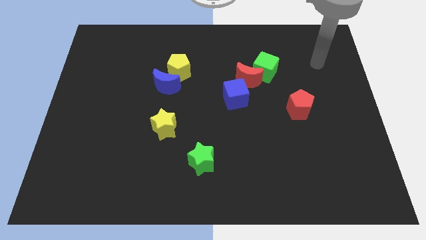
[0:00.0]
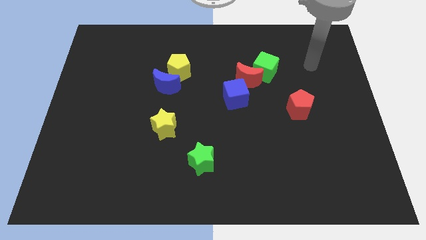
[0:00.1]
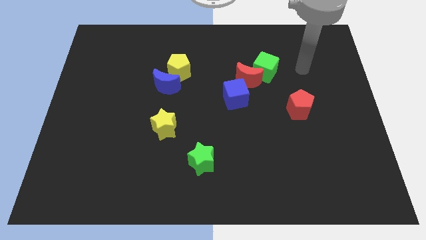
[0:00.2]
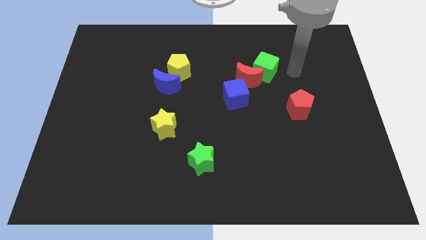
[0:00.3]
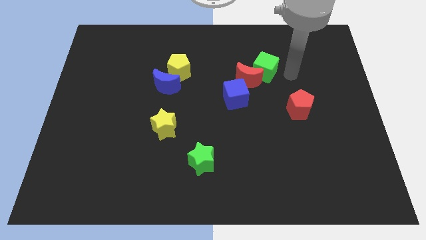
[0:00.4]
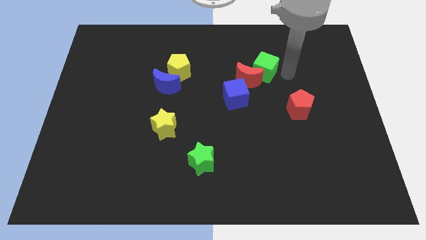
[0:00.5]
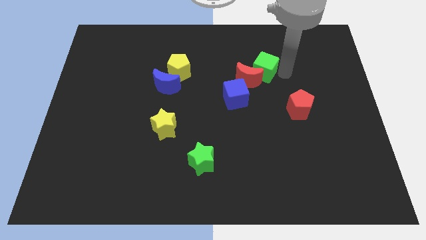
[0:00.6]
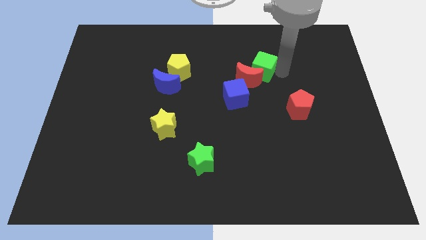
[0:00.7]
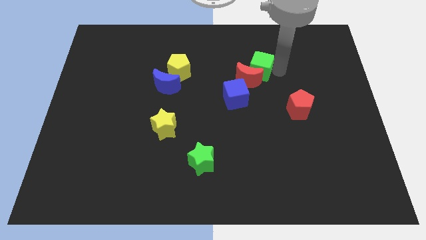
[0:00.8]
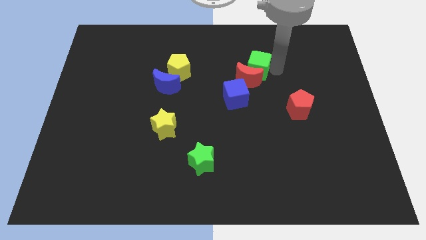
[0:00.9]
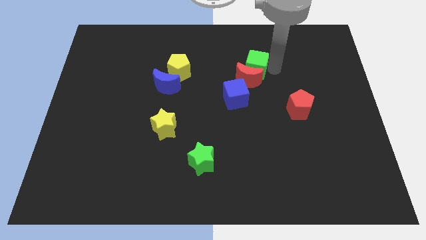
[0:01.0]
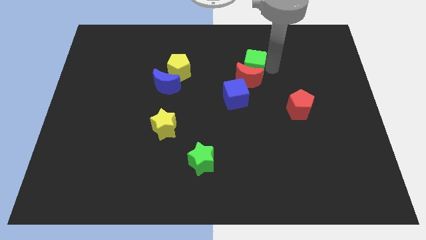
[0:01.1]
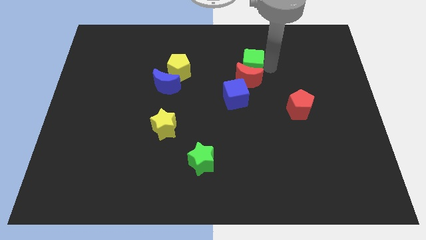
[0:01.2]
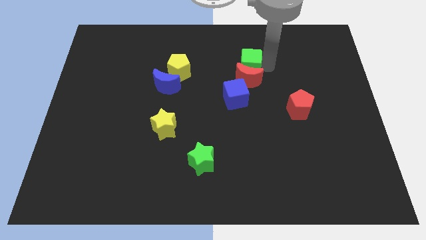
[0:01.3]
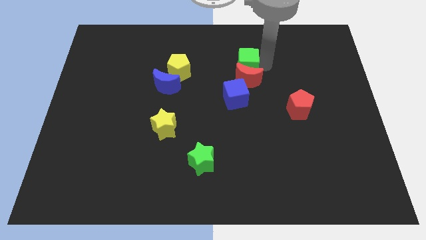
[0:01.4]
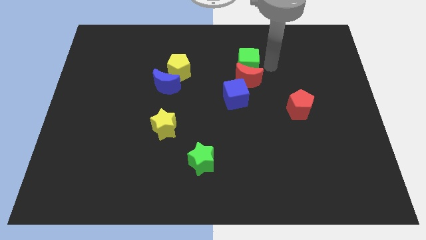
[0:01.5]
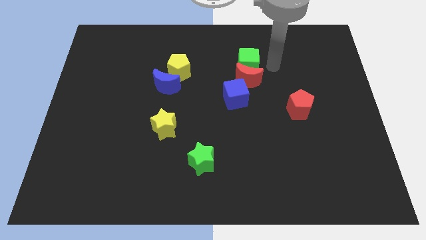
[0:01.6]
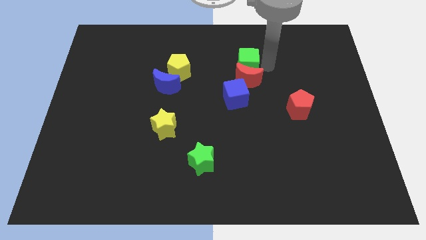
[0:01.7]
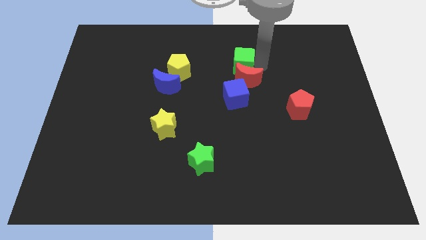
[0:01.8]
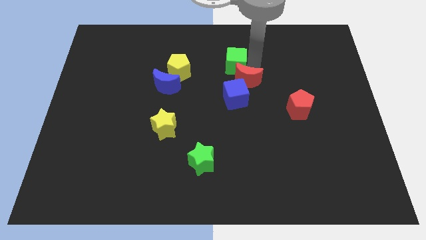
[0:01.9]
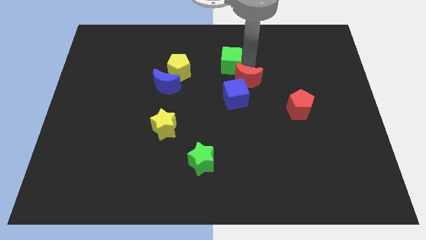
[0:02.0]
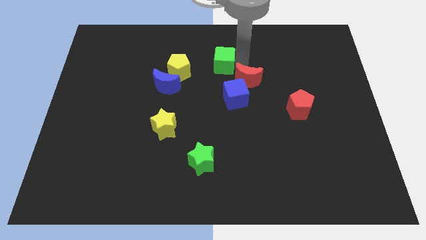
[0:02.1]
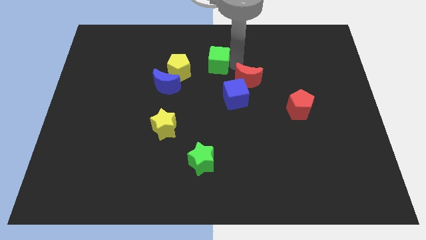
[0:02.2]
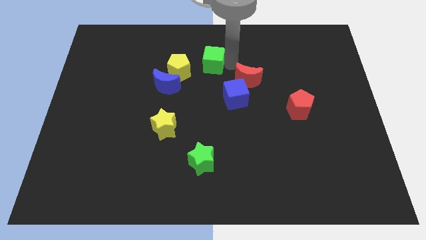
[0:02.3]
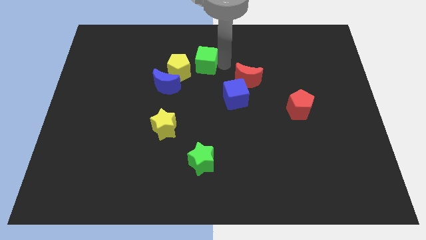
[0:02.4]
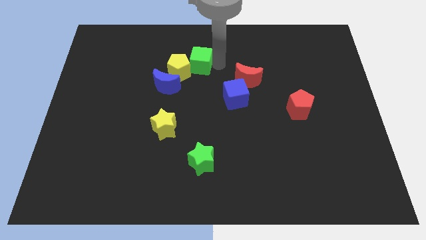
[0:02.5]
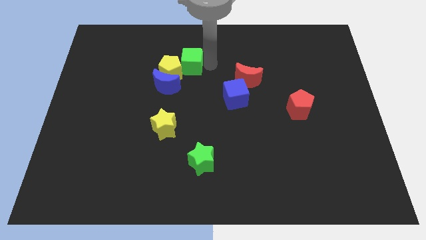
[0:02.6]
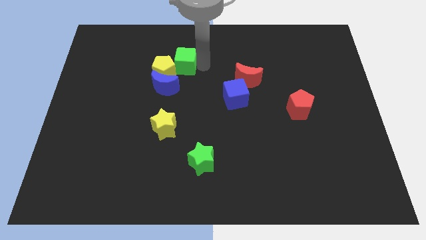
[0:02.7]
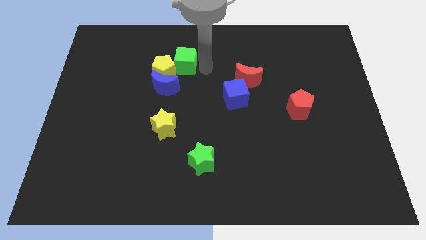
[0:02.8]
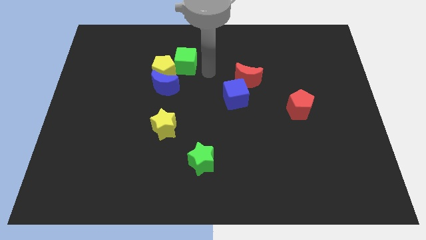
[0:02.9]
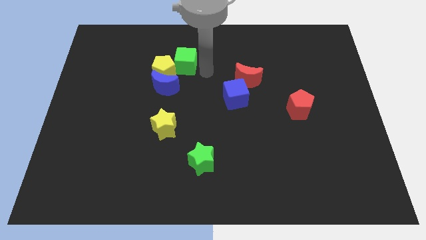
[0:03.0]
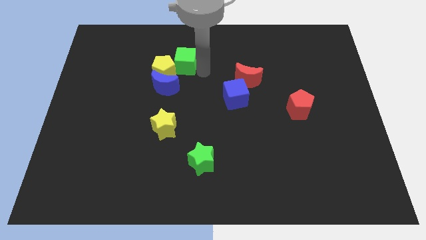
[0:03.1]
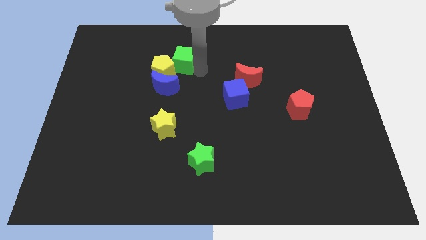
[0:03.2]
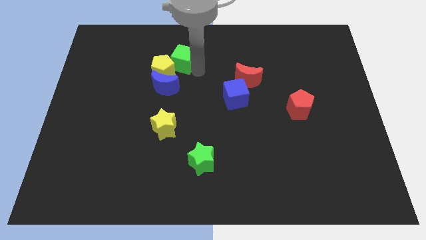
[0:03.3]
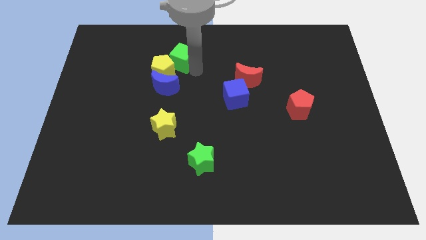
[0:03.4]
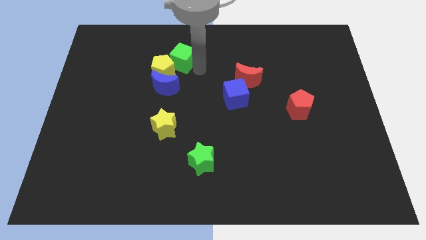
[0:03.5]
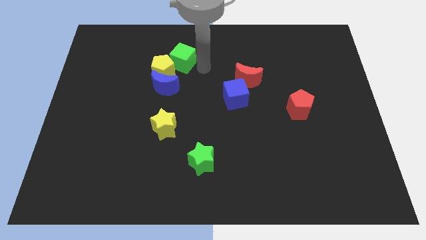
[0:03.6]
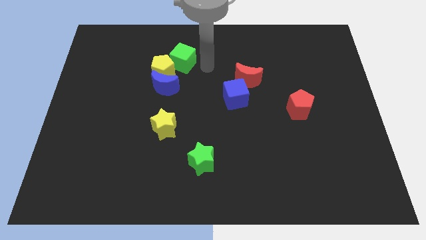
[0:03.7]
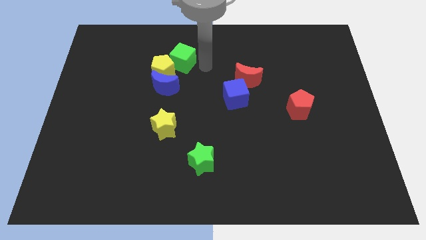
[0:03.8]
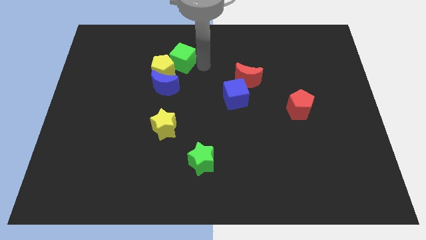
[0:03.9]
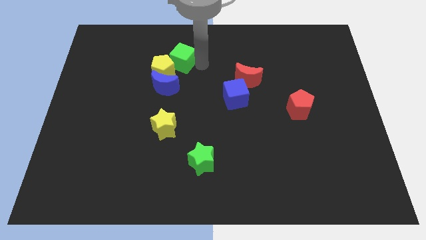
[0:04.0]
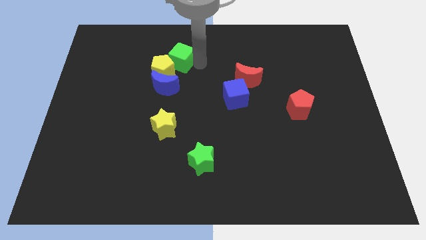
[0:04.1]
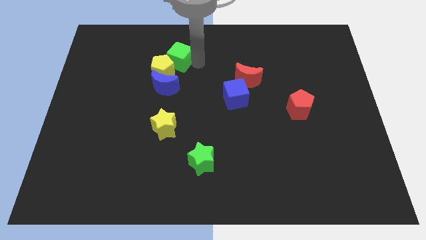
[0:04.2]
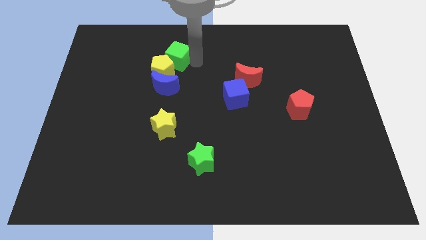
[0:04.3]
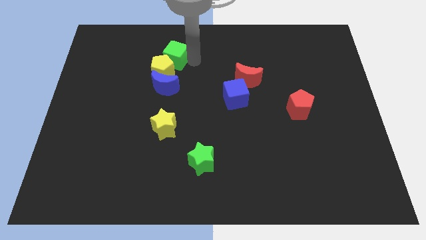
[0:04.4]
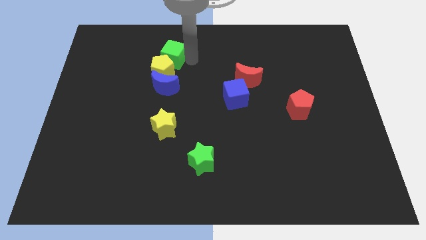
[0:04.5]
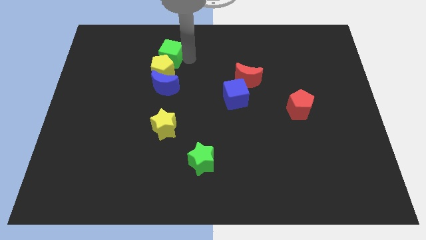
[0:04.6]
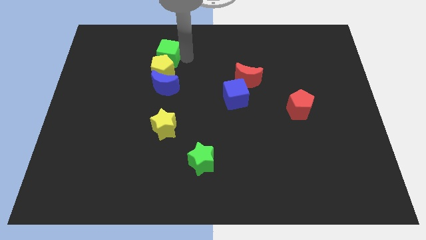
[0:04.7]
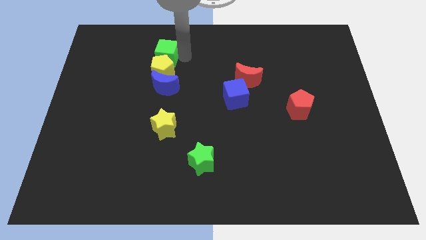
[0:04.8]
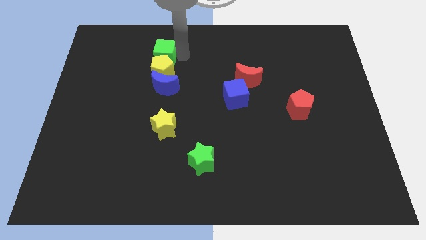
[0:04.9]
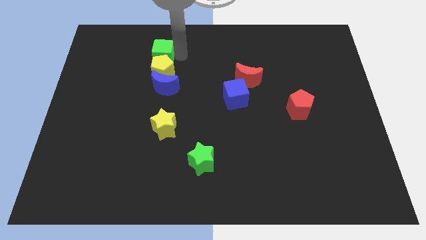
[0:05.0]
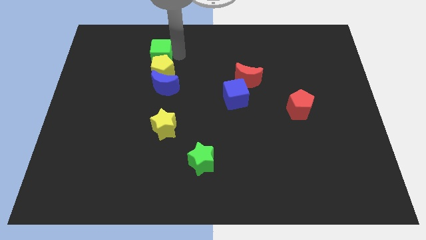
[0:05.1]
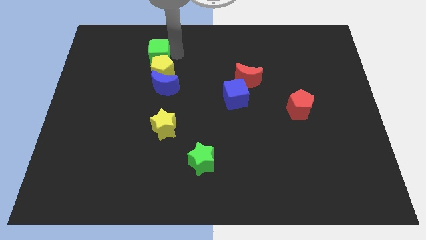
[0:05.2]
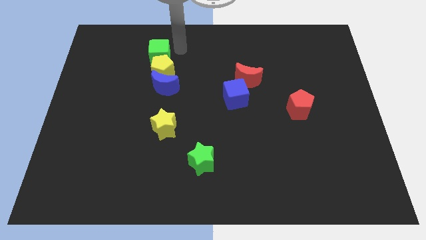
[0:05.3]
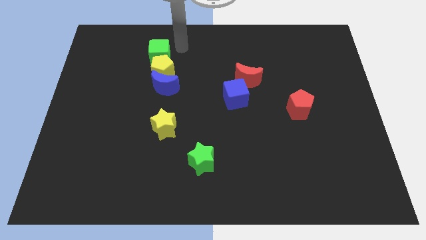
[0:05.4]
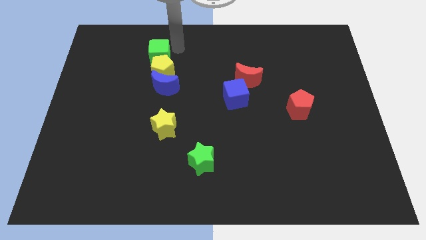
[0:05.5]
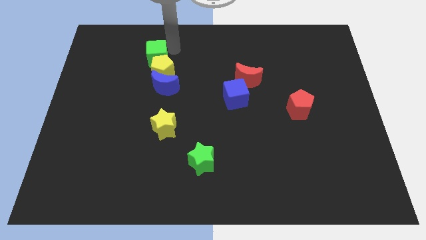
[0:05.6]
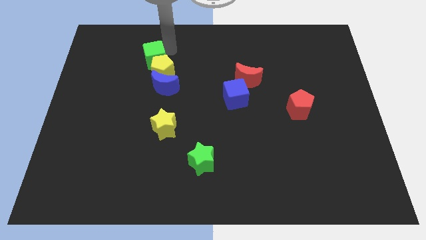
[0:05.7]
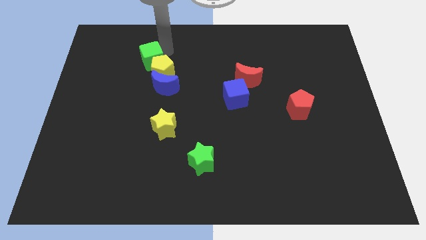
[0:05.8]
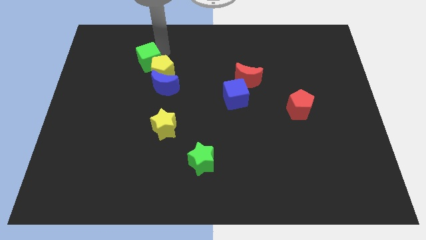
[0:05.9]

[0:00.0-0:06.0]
move the green cube just left of the yellow pentagon

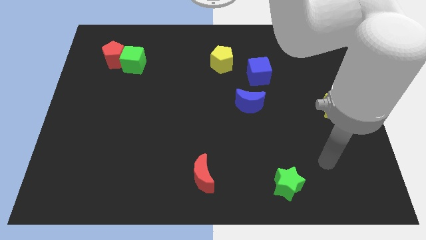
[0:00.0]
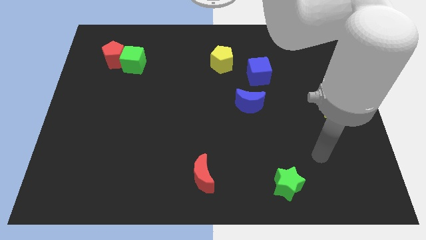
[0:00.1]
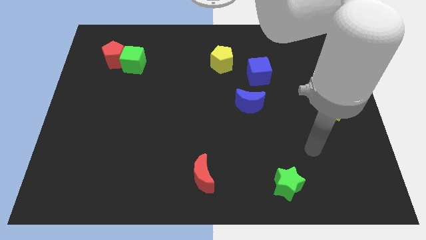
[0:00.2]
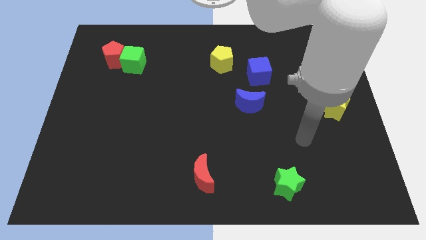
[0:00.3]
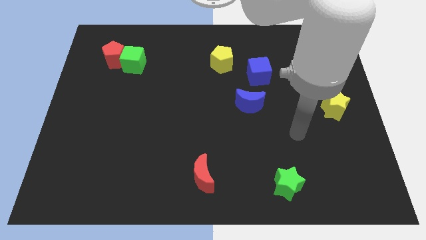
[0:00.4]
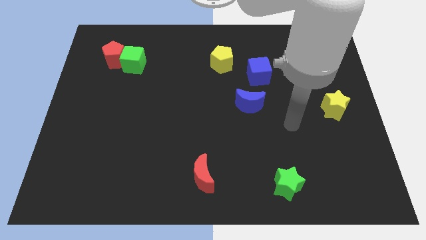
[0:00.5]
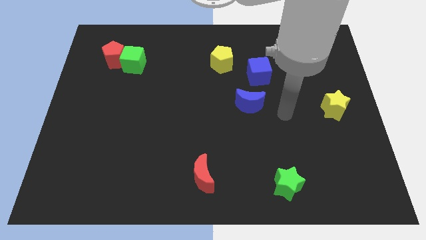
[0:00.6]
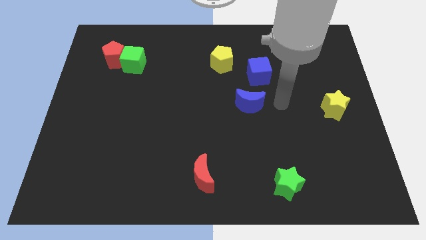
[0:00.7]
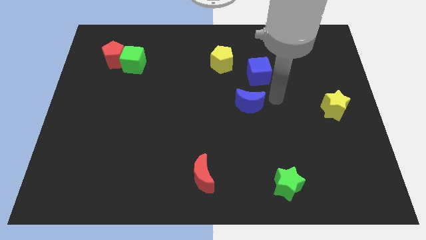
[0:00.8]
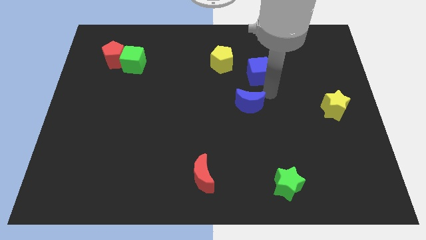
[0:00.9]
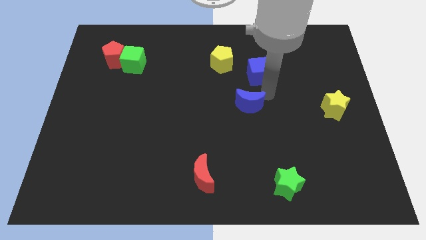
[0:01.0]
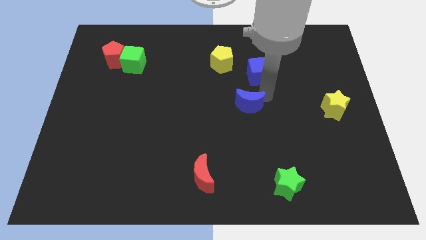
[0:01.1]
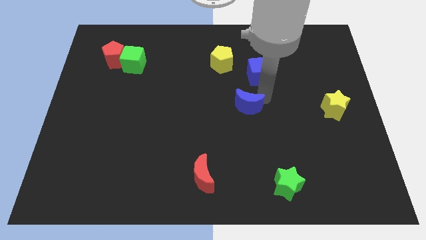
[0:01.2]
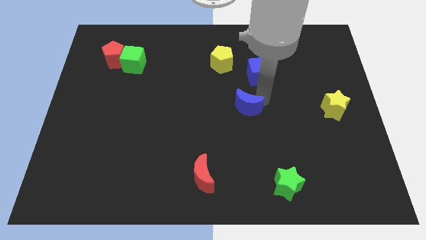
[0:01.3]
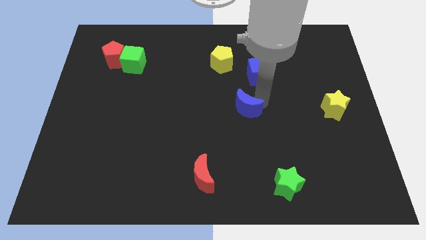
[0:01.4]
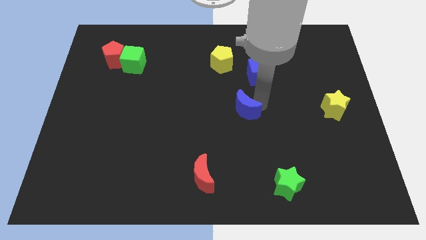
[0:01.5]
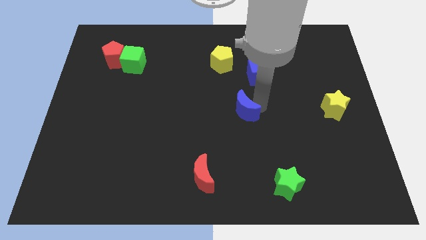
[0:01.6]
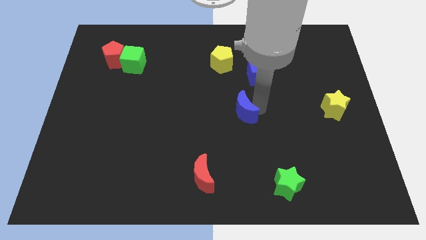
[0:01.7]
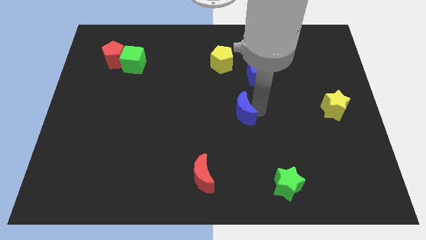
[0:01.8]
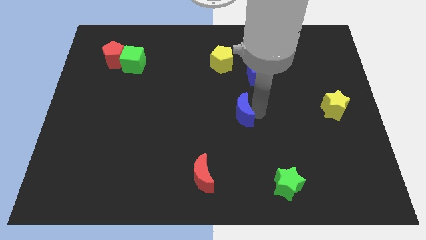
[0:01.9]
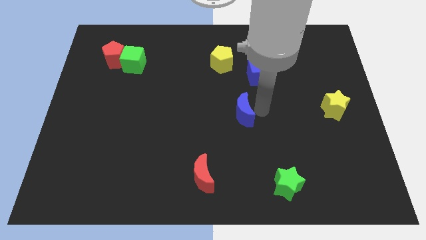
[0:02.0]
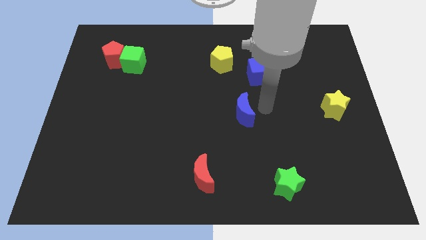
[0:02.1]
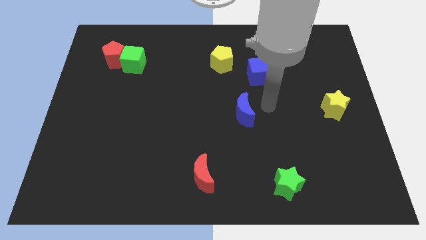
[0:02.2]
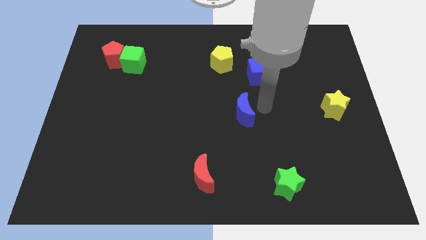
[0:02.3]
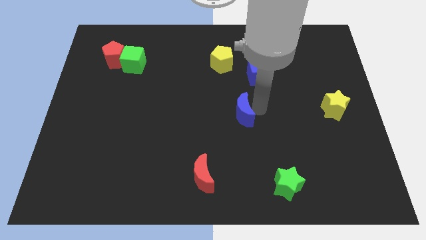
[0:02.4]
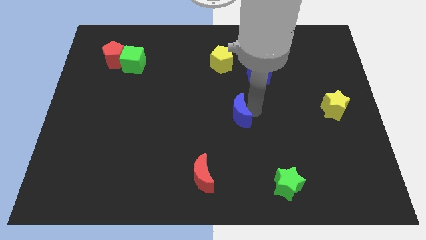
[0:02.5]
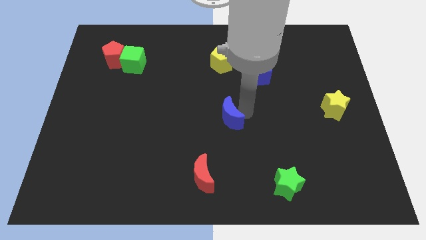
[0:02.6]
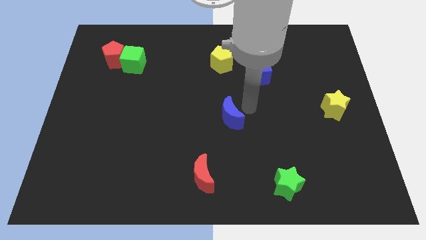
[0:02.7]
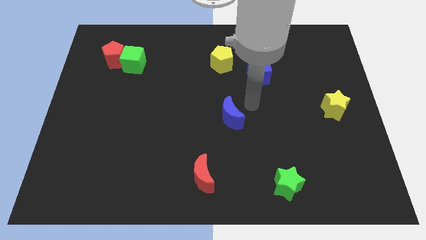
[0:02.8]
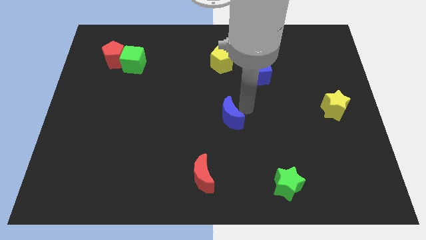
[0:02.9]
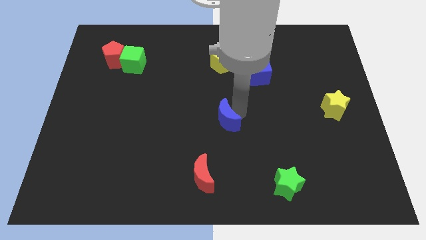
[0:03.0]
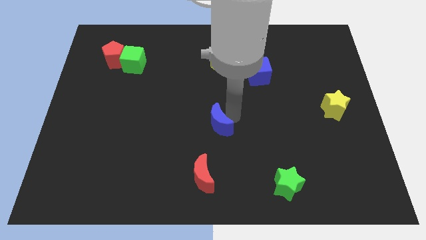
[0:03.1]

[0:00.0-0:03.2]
slide the blue moon to the top side of the red moon
